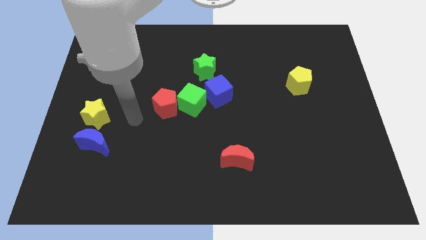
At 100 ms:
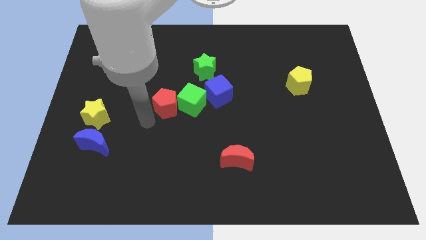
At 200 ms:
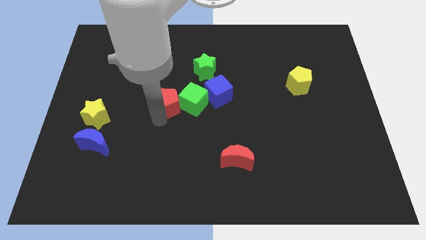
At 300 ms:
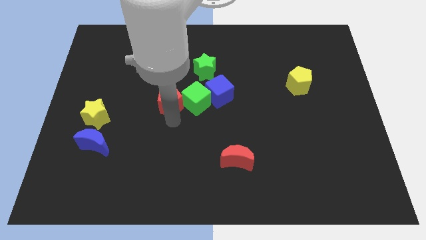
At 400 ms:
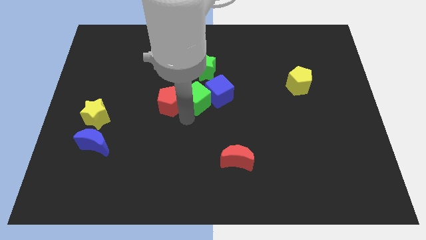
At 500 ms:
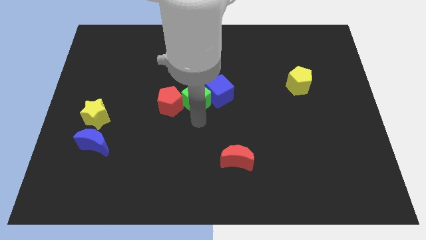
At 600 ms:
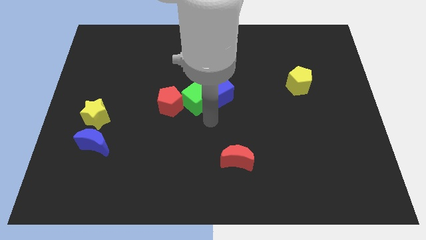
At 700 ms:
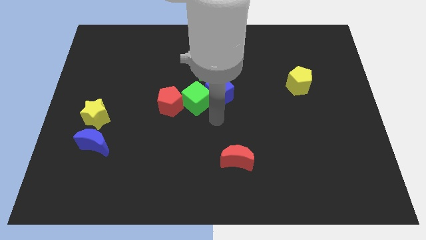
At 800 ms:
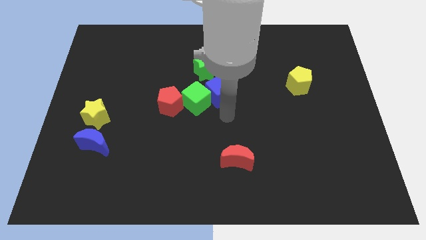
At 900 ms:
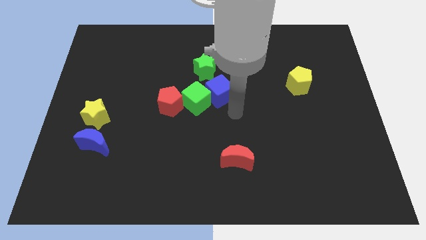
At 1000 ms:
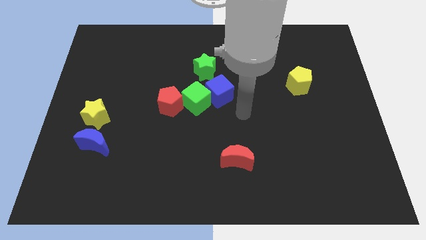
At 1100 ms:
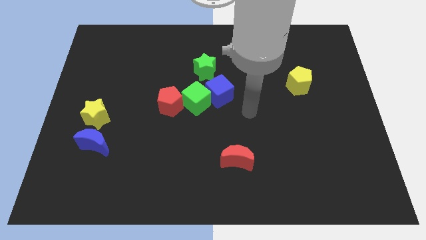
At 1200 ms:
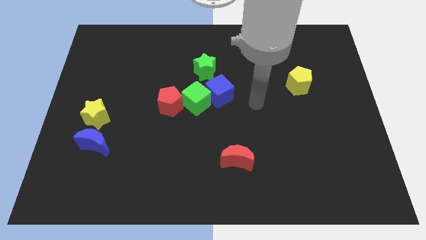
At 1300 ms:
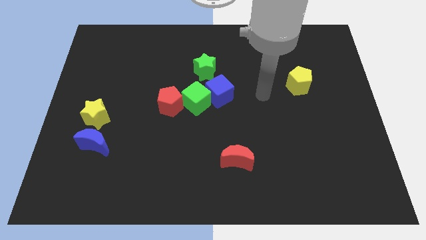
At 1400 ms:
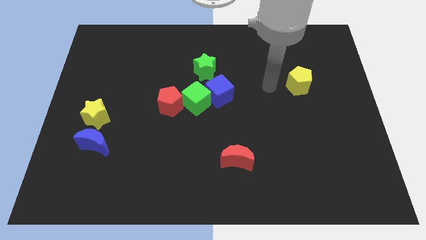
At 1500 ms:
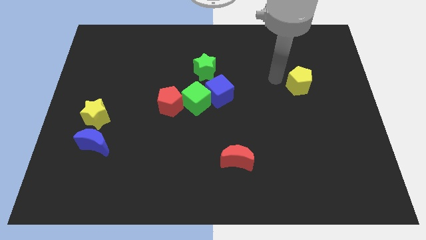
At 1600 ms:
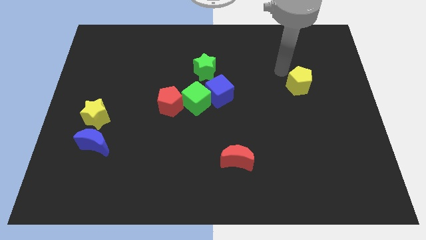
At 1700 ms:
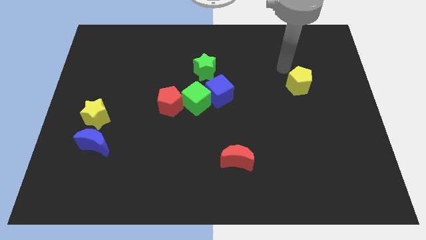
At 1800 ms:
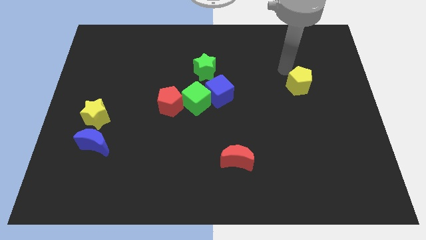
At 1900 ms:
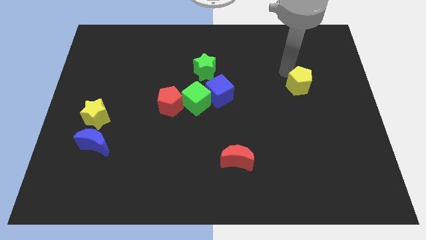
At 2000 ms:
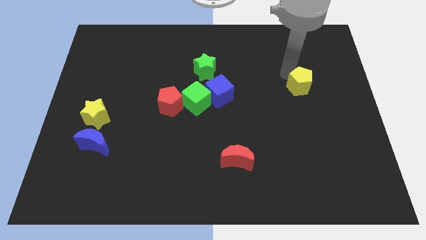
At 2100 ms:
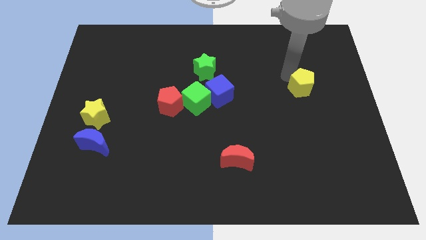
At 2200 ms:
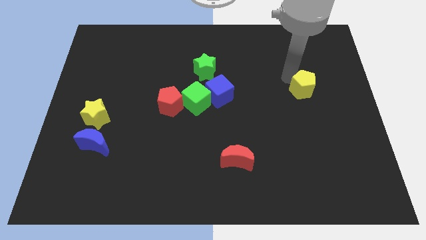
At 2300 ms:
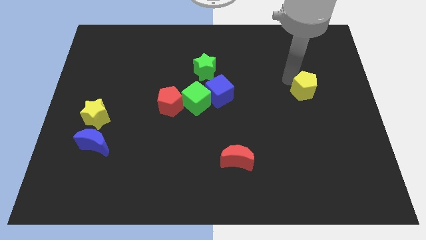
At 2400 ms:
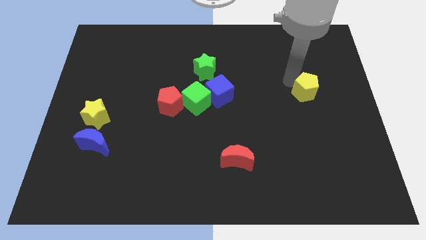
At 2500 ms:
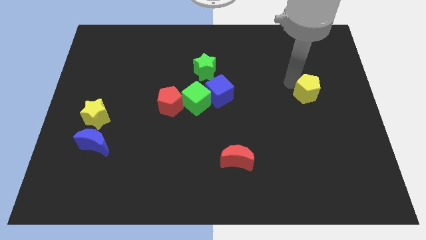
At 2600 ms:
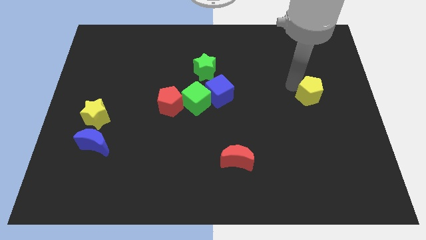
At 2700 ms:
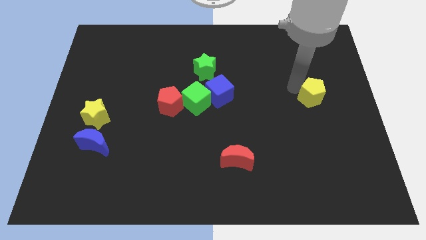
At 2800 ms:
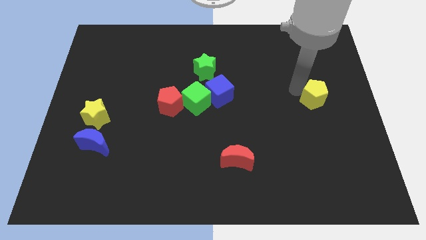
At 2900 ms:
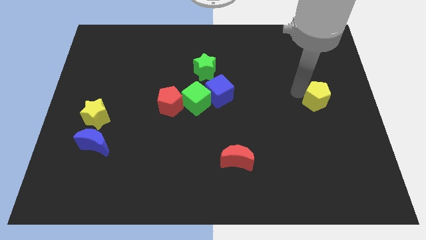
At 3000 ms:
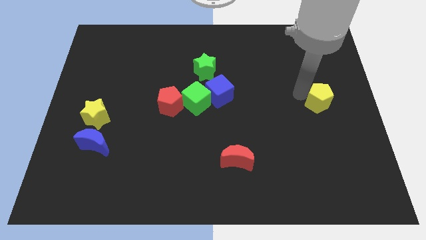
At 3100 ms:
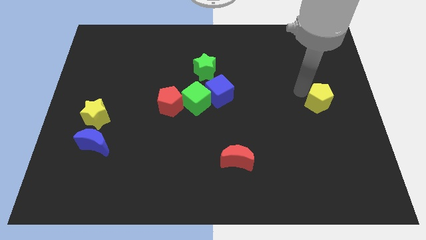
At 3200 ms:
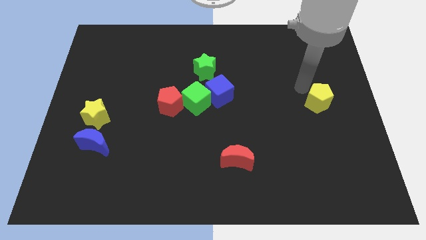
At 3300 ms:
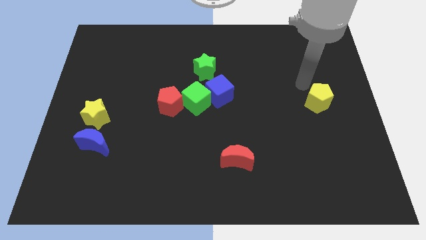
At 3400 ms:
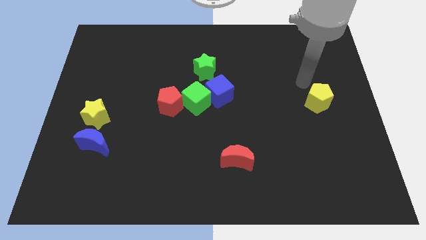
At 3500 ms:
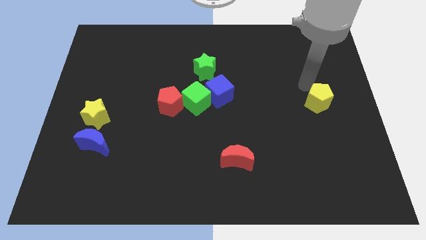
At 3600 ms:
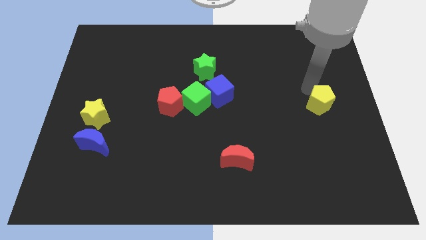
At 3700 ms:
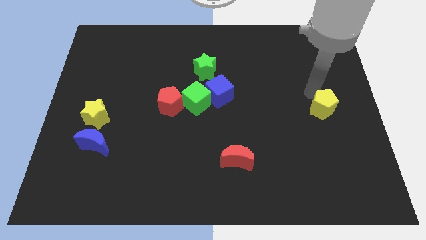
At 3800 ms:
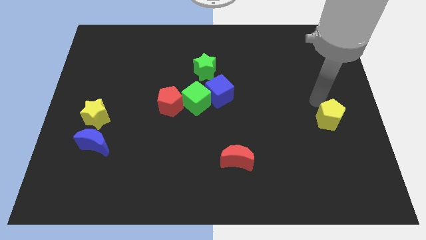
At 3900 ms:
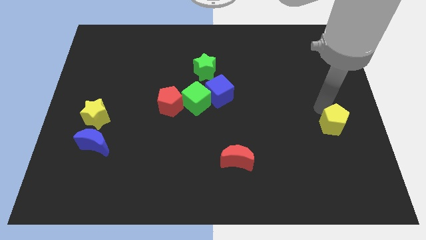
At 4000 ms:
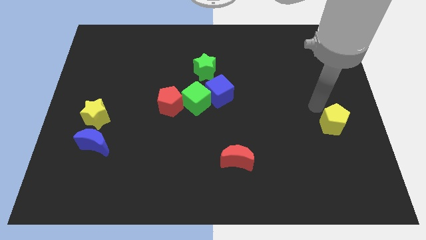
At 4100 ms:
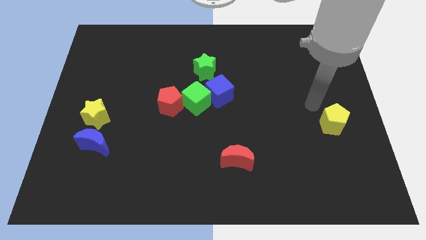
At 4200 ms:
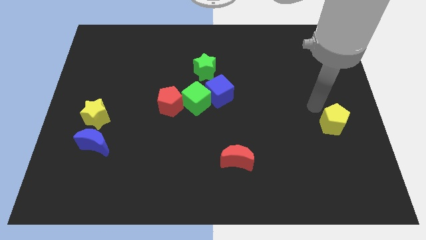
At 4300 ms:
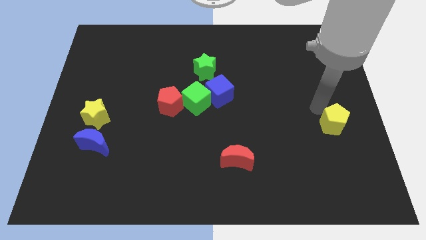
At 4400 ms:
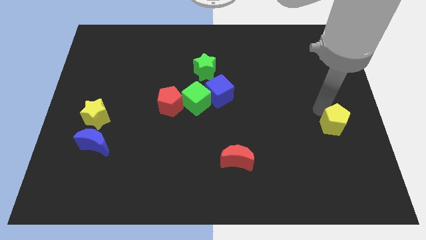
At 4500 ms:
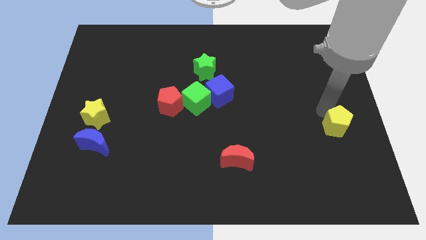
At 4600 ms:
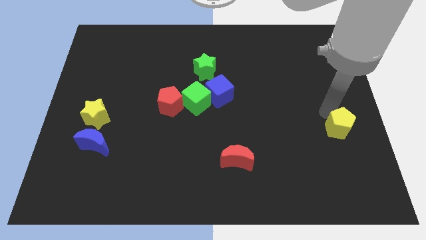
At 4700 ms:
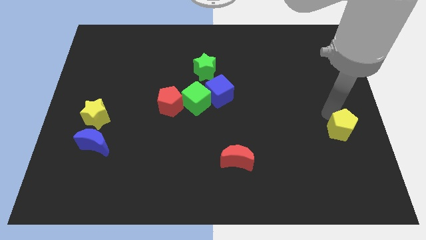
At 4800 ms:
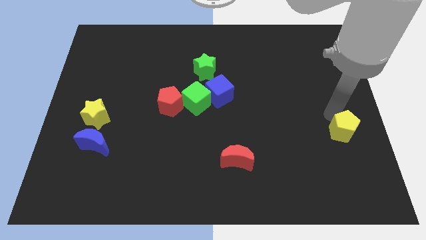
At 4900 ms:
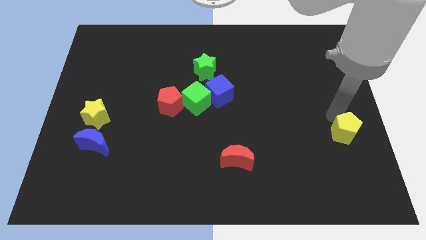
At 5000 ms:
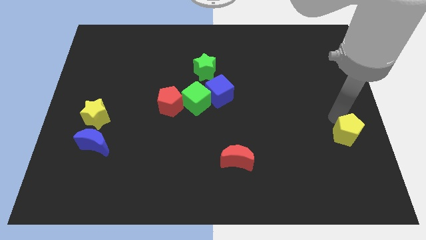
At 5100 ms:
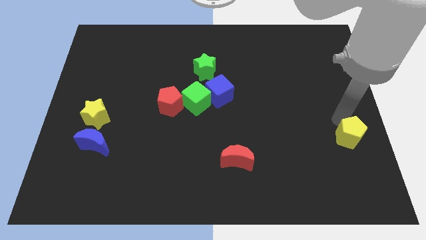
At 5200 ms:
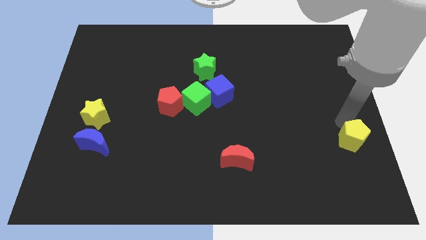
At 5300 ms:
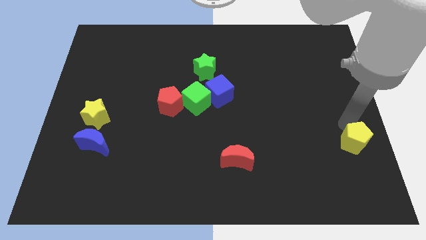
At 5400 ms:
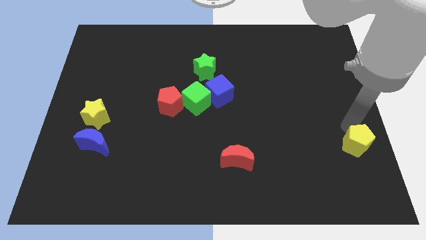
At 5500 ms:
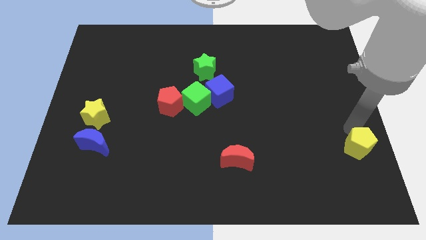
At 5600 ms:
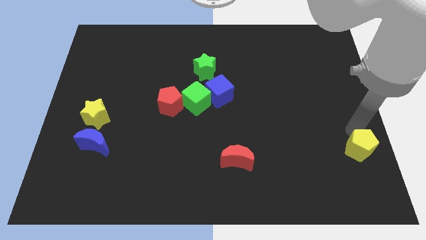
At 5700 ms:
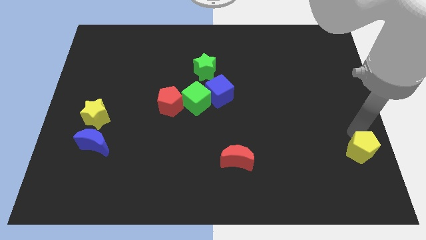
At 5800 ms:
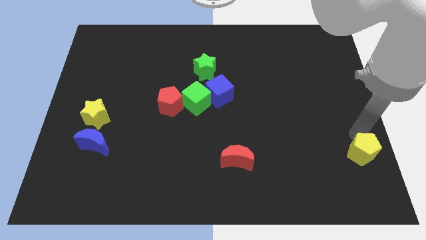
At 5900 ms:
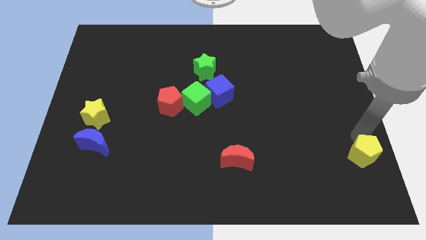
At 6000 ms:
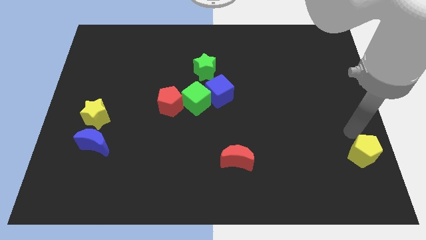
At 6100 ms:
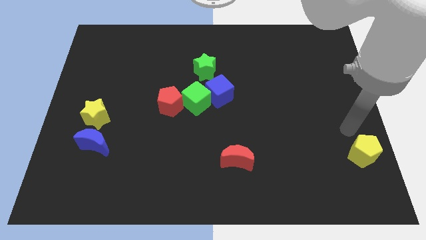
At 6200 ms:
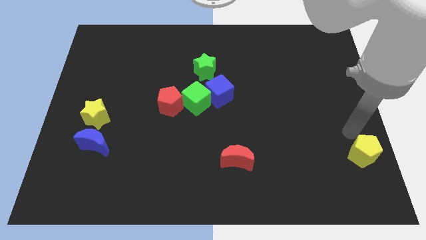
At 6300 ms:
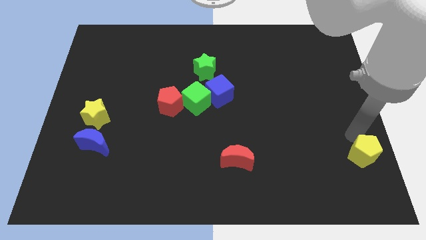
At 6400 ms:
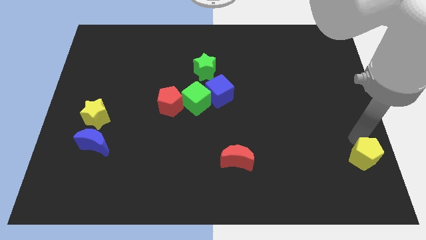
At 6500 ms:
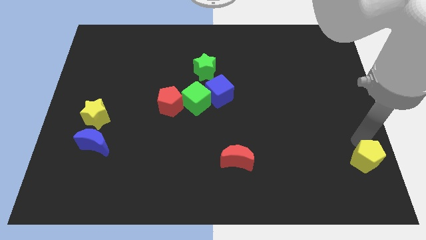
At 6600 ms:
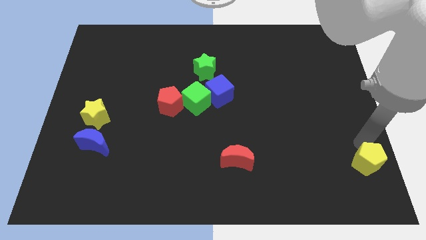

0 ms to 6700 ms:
push the yellow pentagon to the bottom right of the board

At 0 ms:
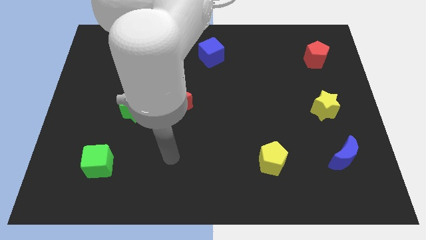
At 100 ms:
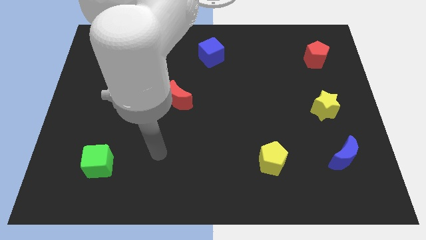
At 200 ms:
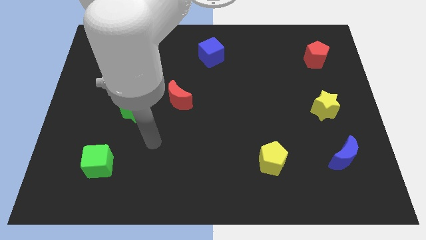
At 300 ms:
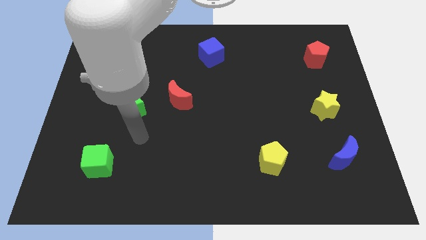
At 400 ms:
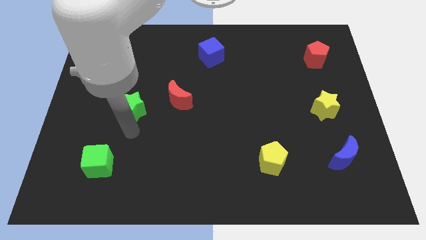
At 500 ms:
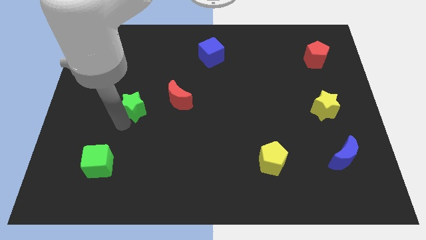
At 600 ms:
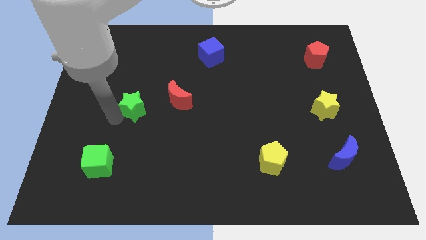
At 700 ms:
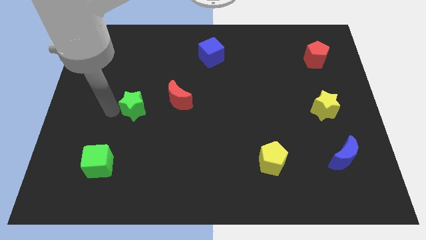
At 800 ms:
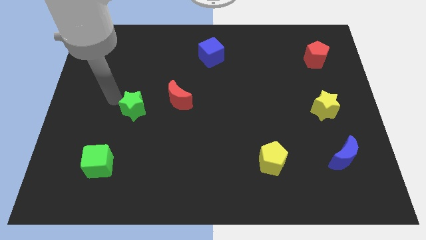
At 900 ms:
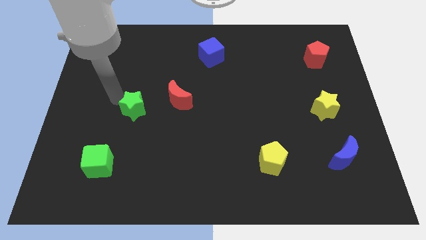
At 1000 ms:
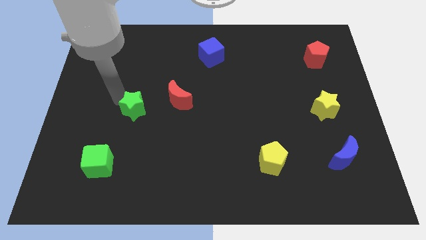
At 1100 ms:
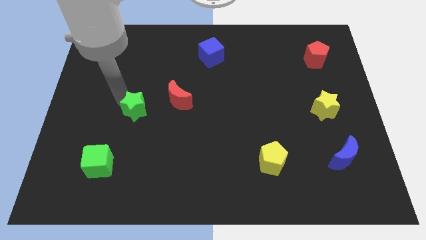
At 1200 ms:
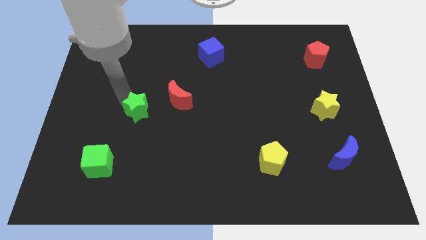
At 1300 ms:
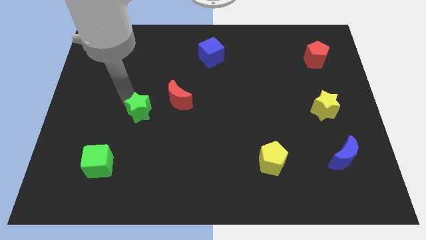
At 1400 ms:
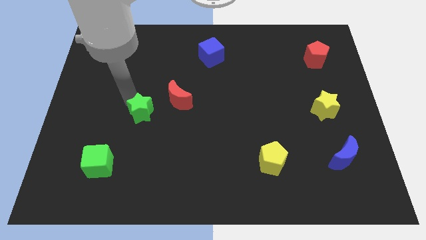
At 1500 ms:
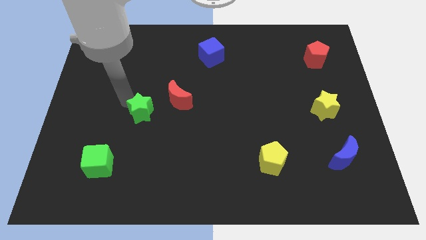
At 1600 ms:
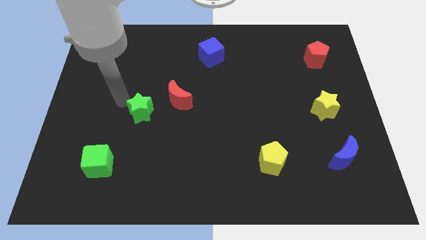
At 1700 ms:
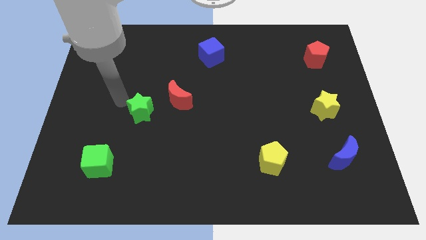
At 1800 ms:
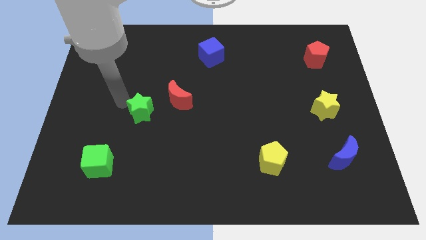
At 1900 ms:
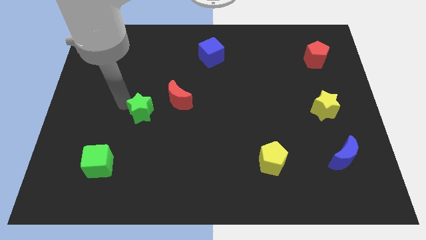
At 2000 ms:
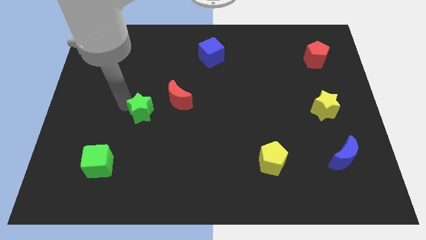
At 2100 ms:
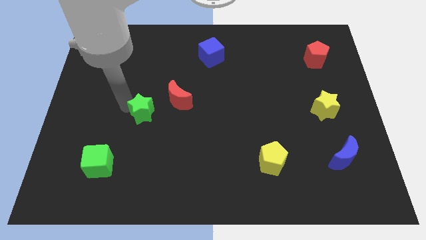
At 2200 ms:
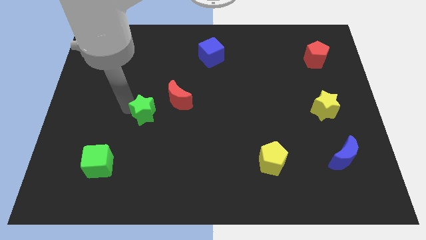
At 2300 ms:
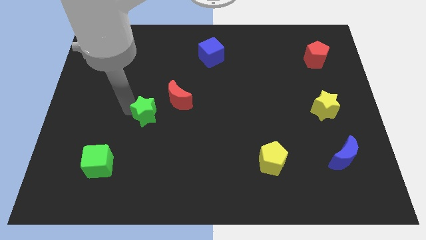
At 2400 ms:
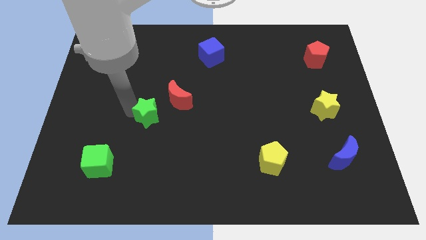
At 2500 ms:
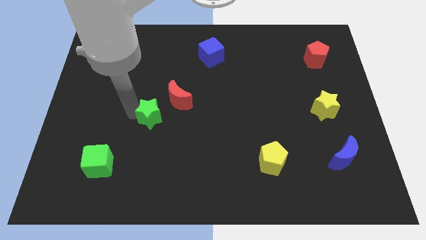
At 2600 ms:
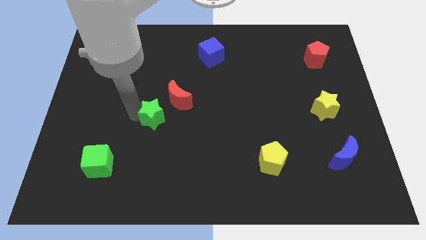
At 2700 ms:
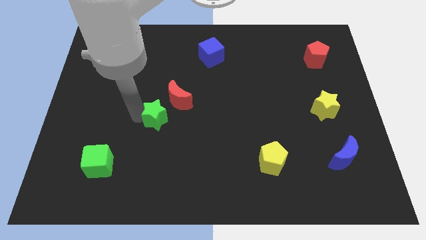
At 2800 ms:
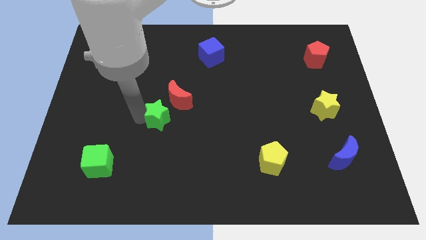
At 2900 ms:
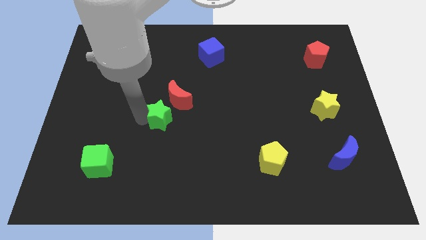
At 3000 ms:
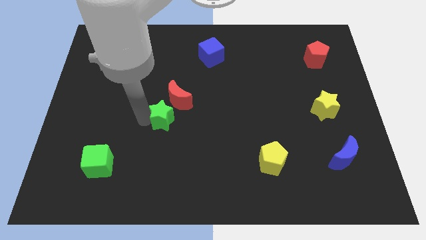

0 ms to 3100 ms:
put the green star to the center of the board
